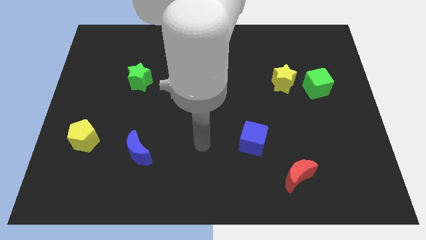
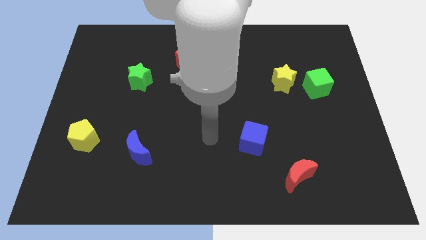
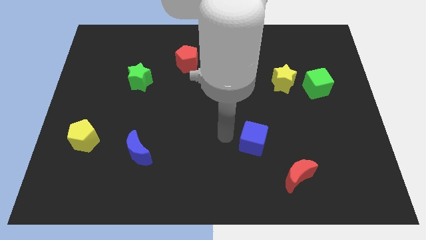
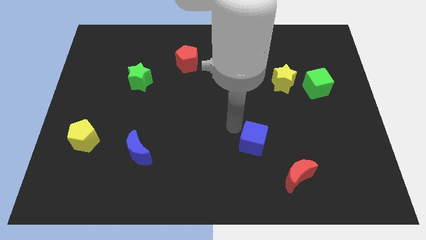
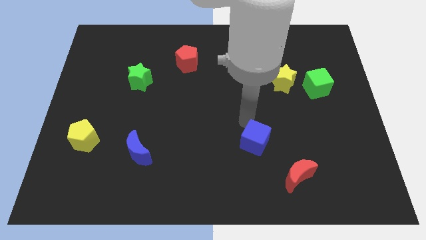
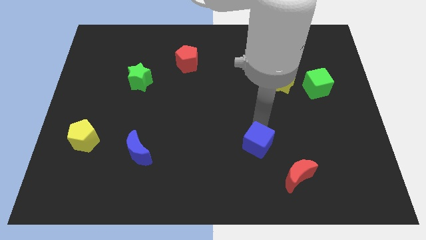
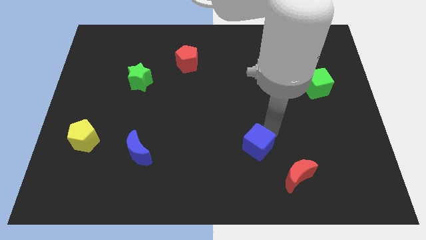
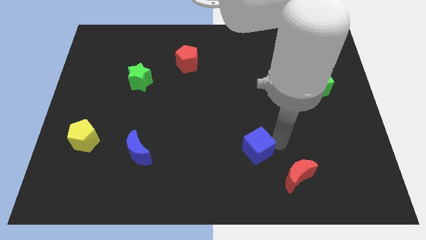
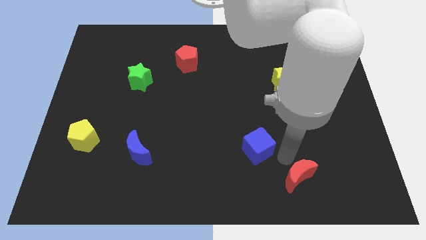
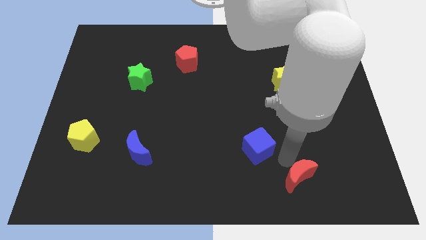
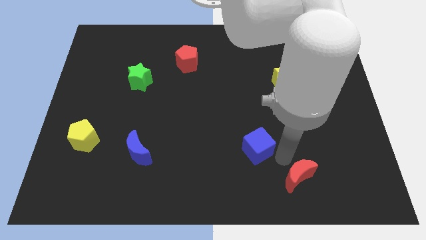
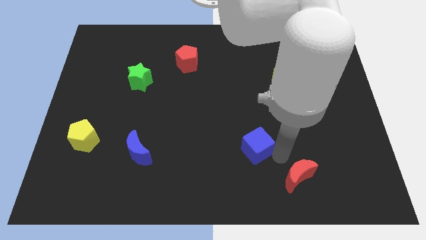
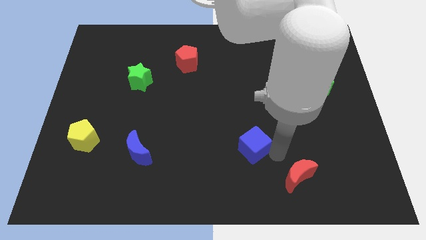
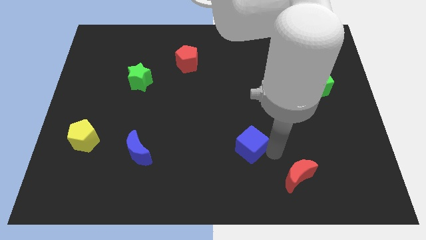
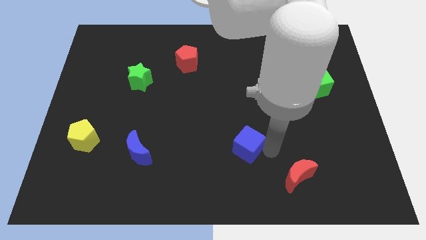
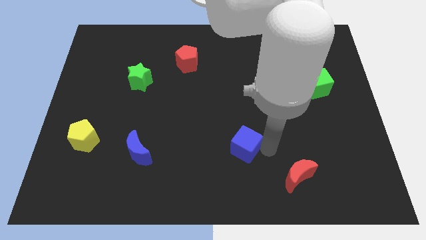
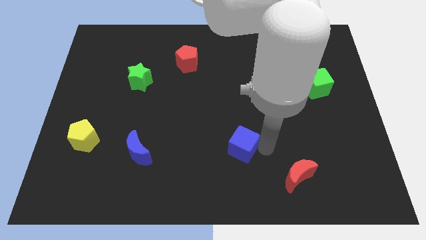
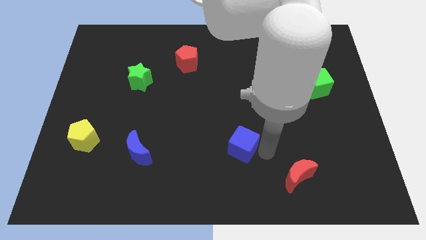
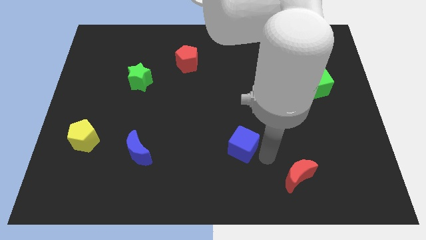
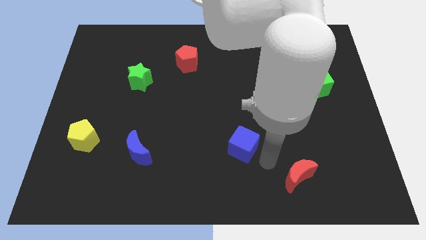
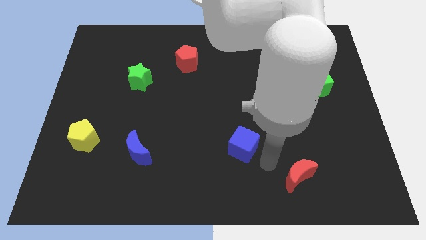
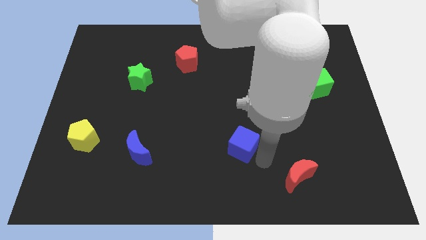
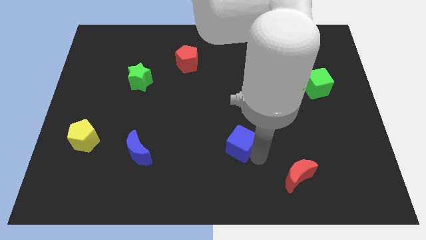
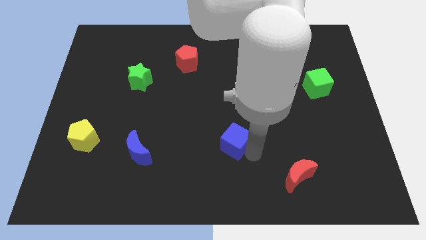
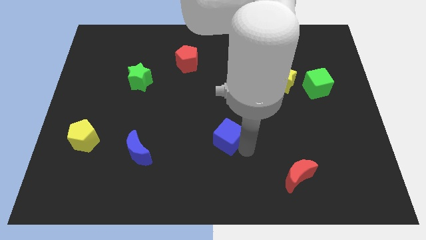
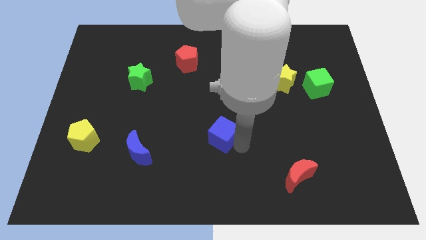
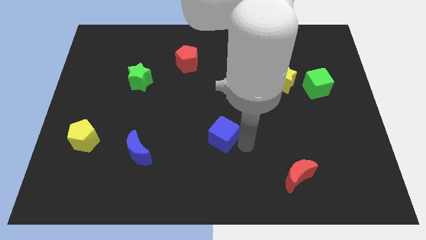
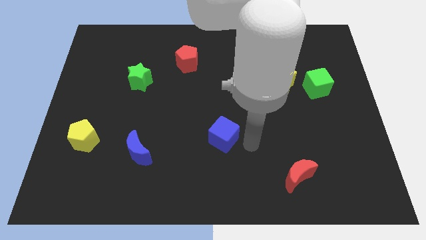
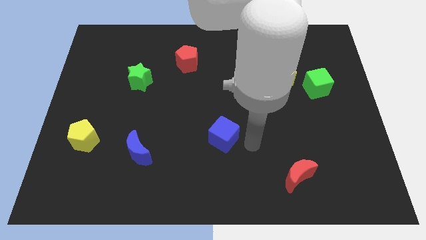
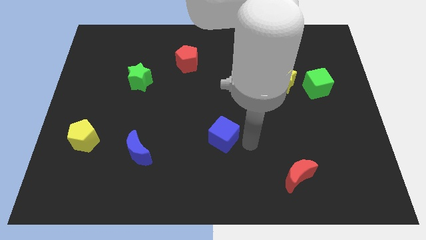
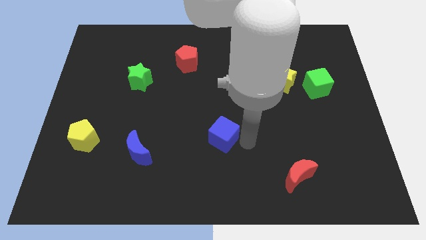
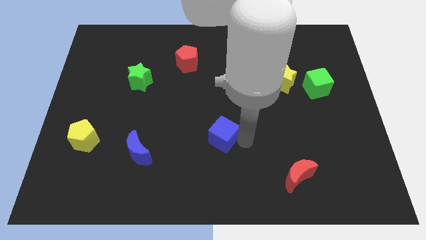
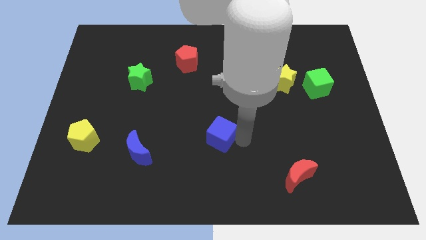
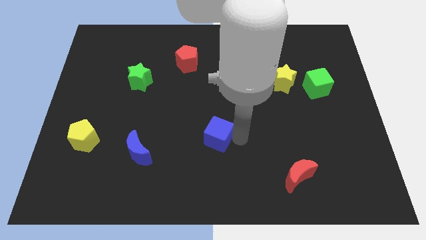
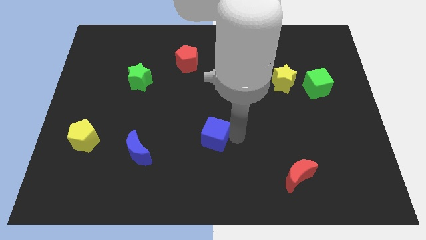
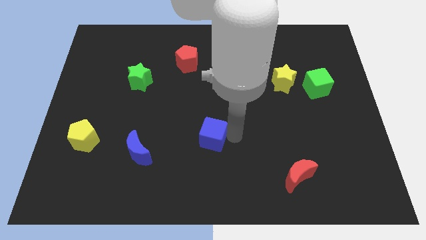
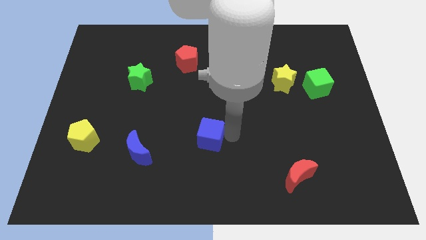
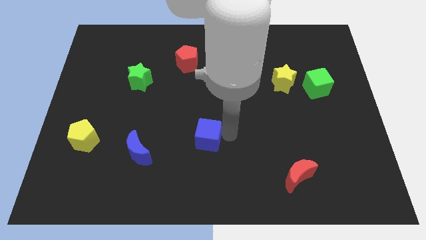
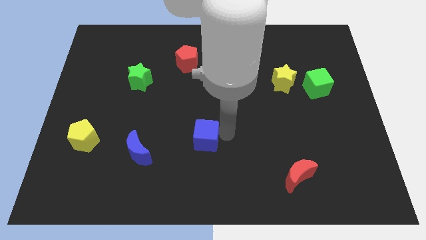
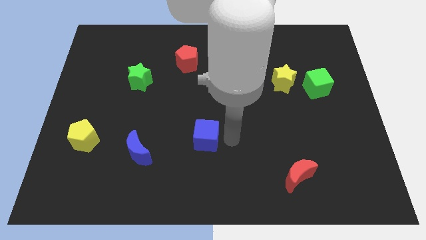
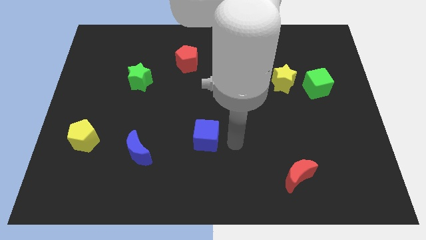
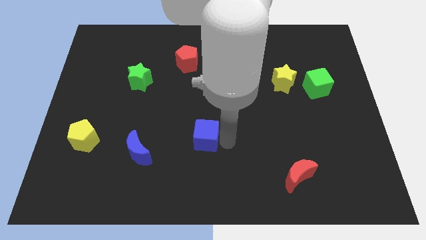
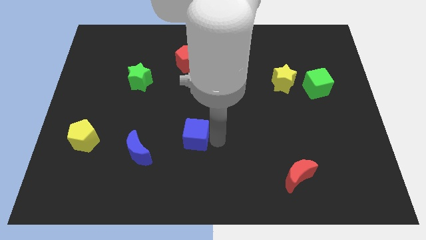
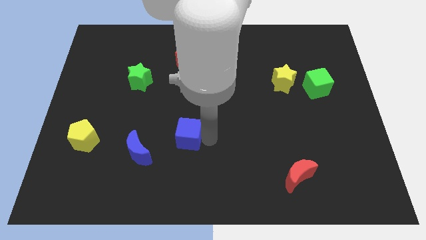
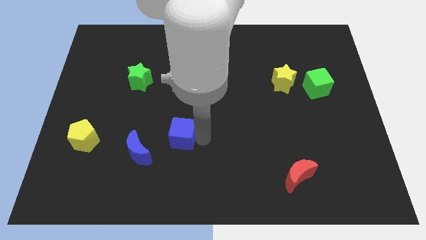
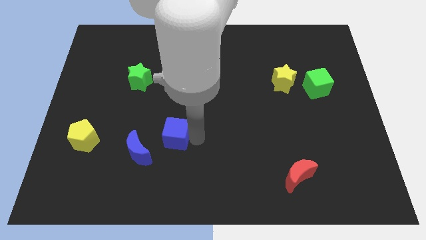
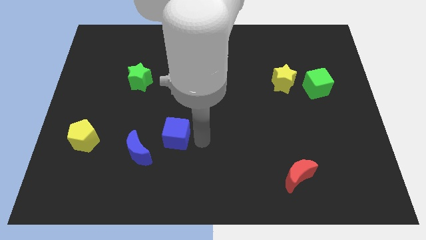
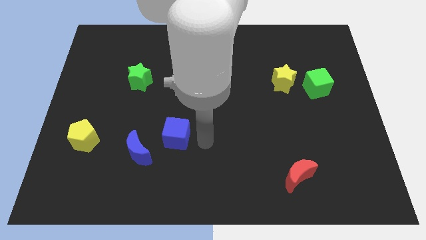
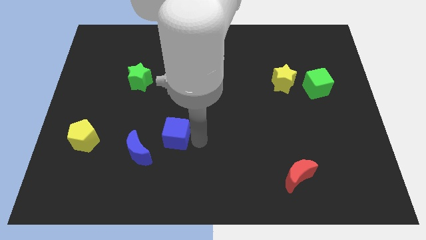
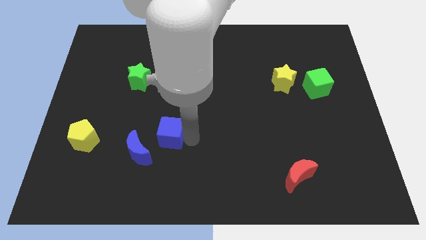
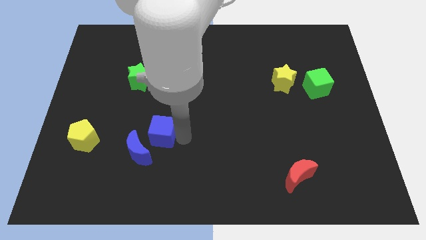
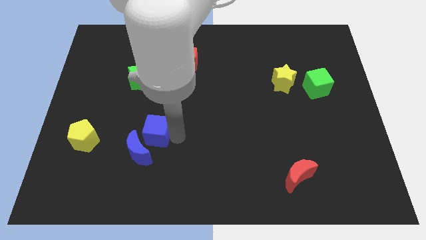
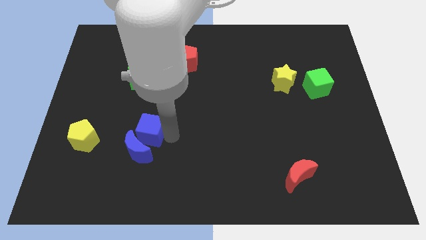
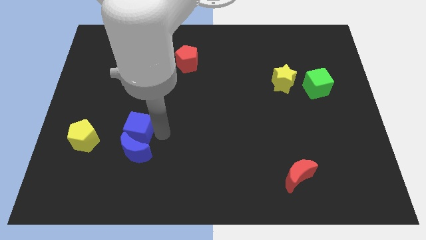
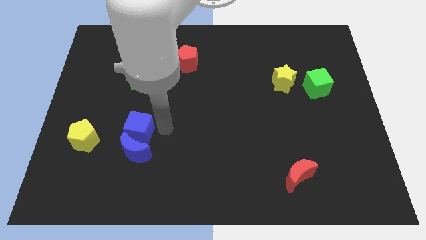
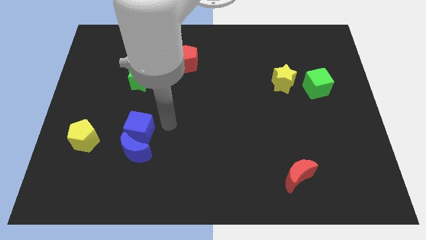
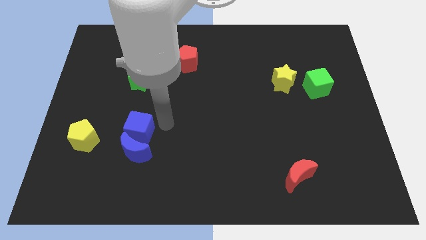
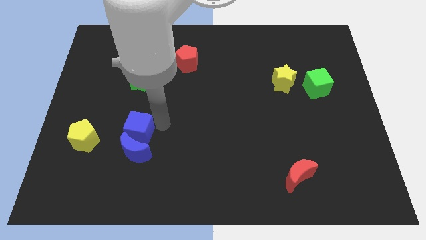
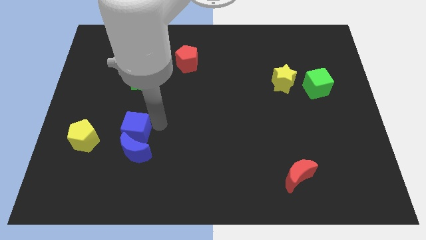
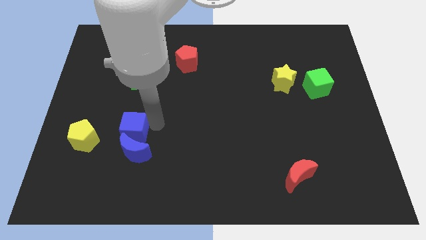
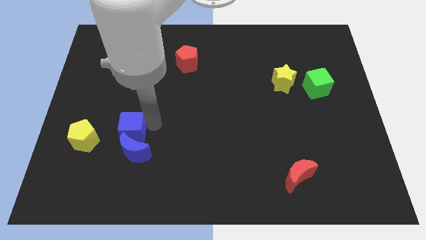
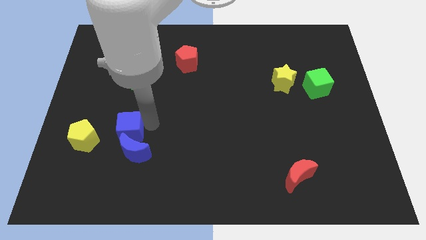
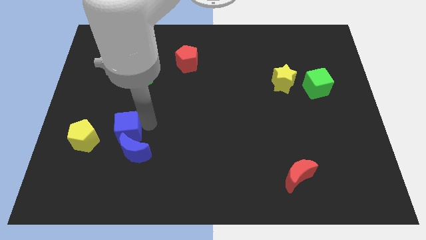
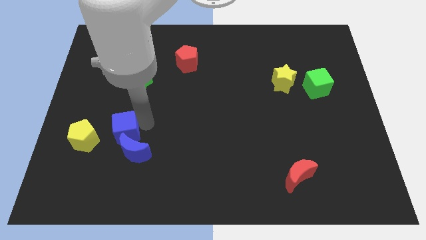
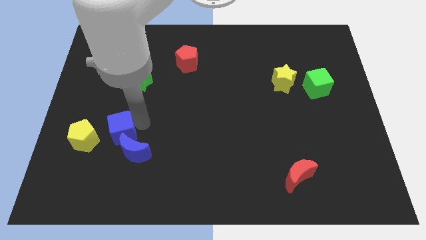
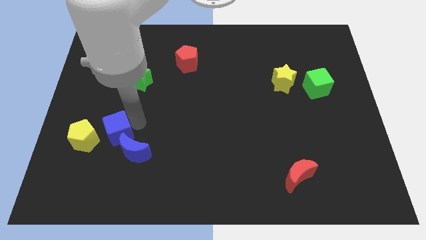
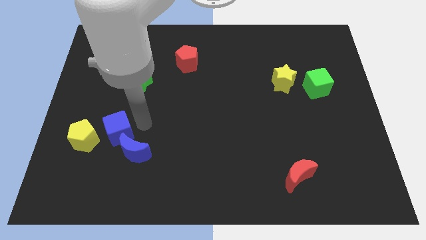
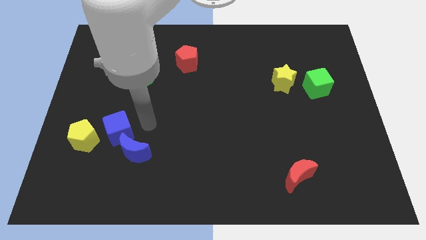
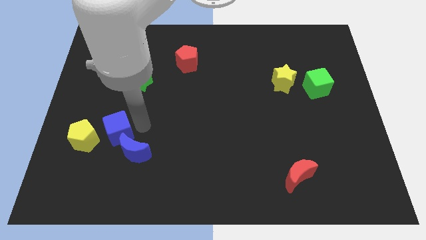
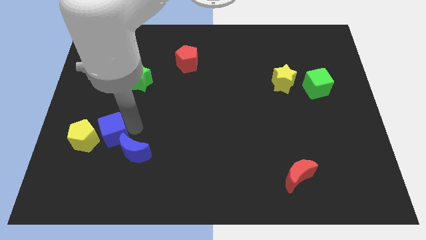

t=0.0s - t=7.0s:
put the blue cube close to the yellow pentagon
